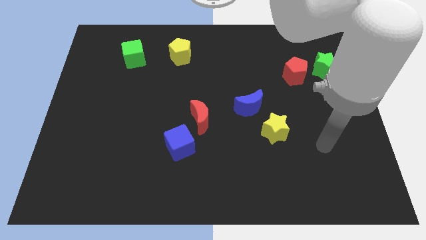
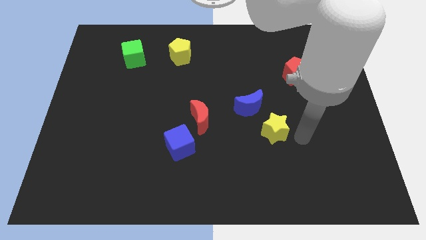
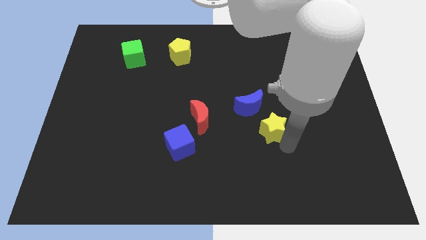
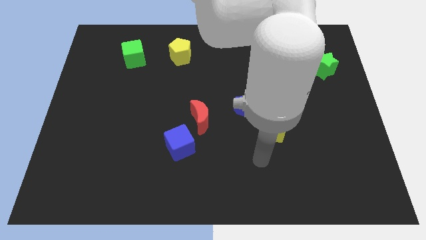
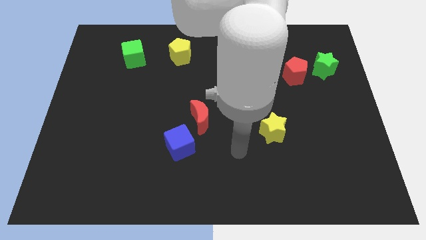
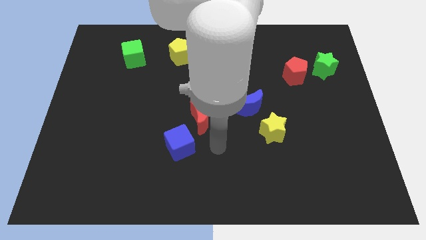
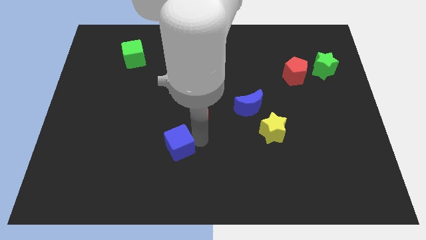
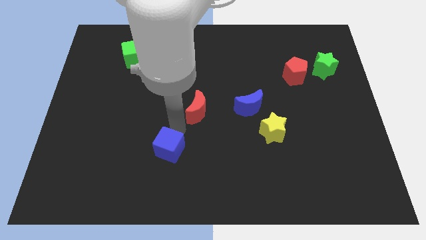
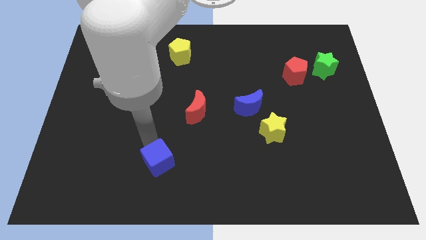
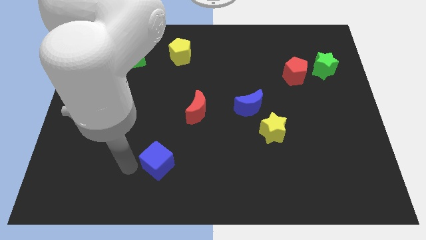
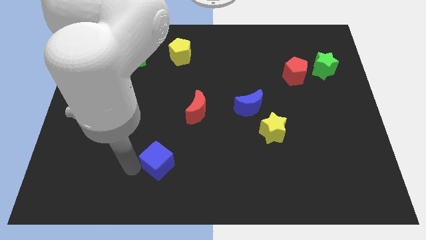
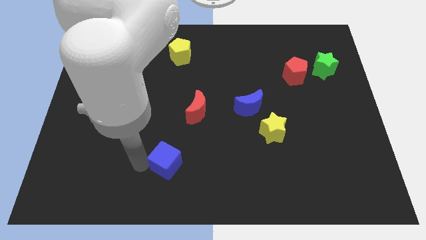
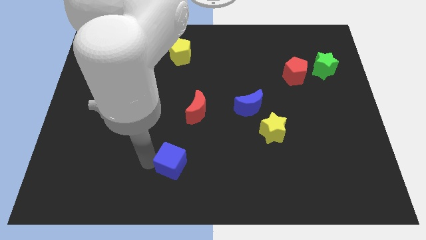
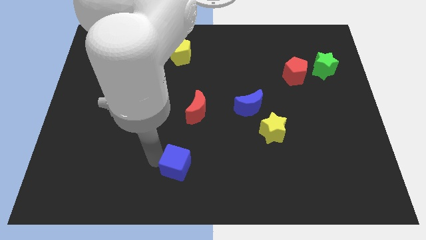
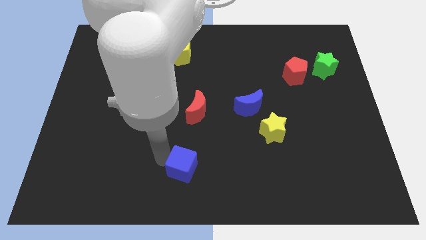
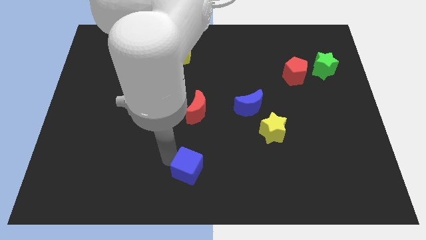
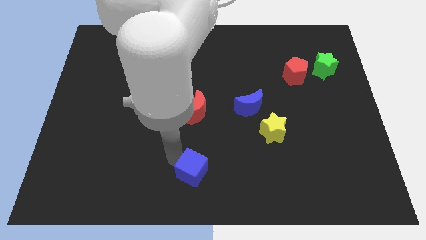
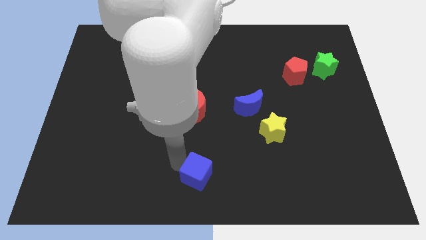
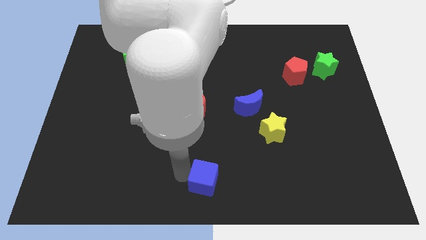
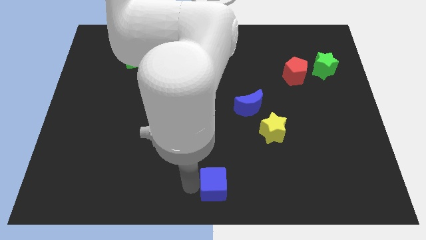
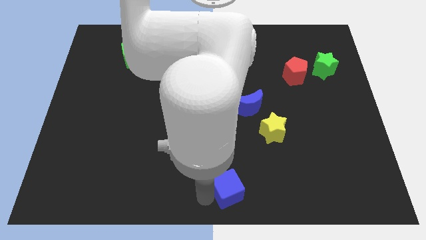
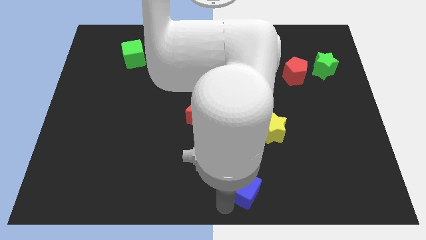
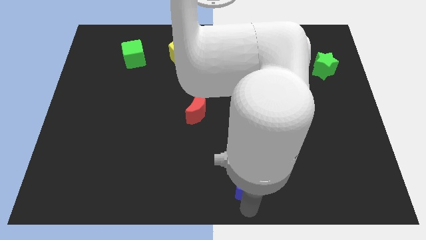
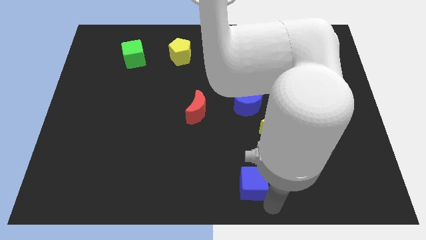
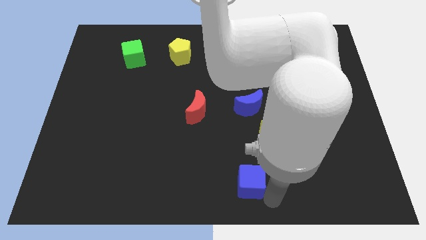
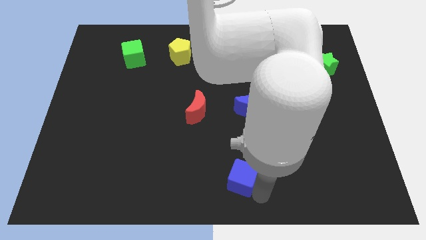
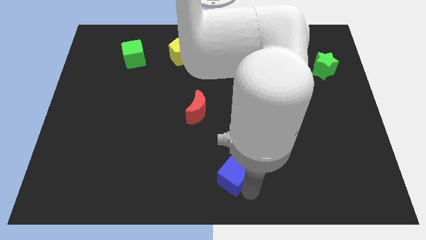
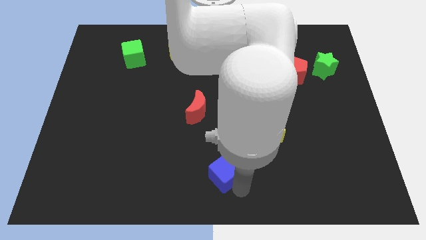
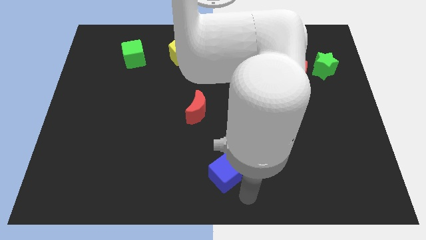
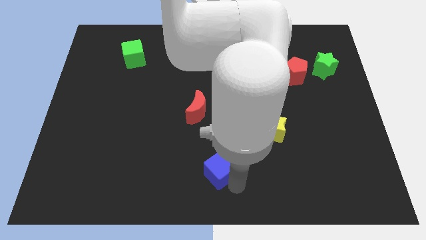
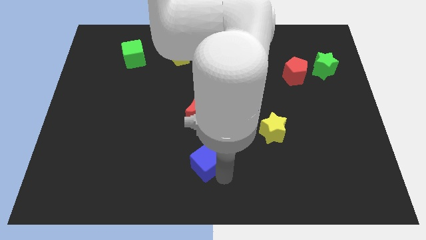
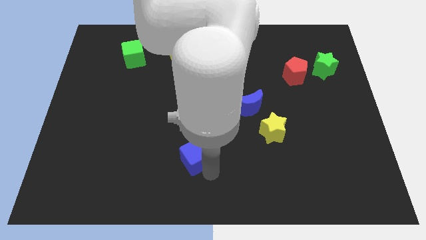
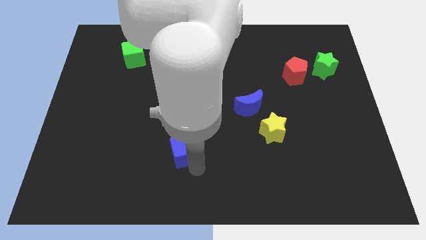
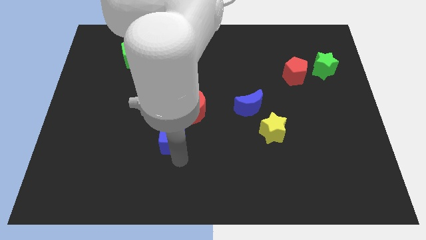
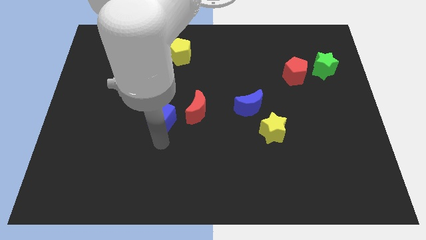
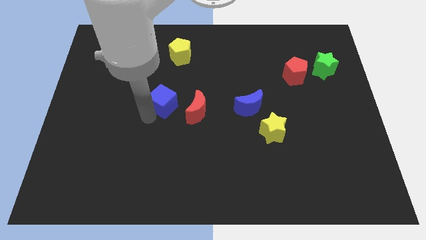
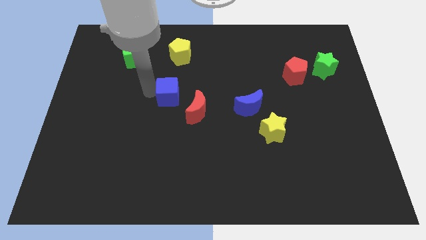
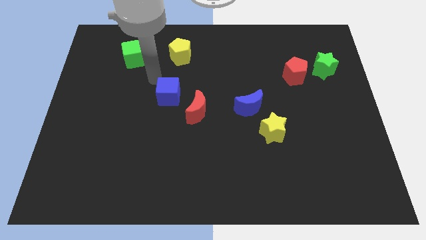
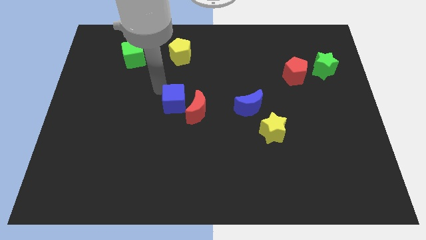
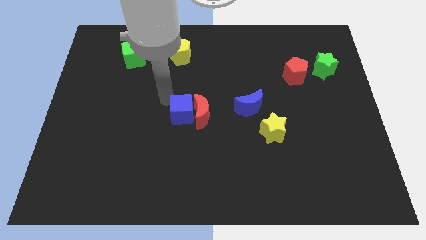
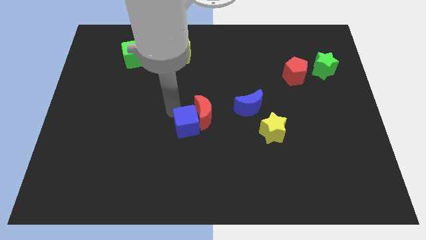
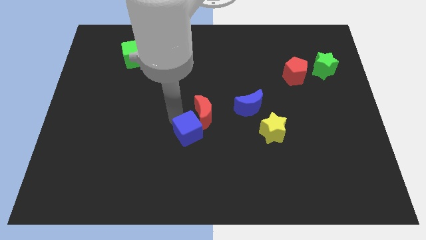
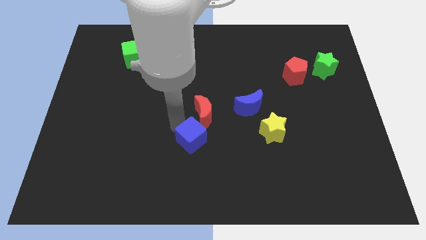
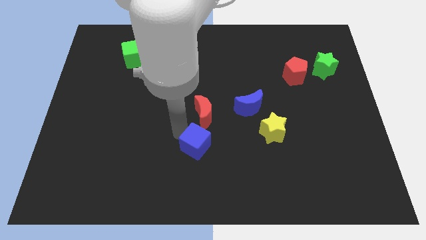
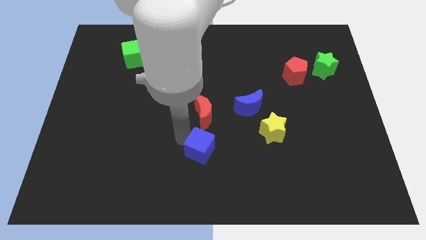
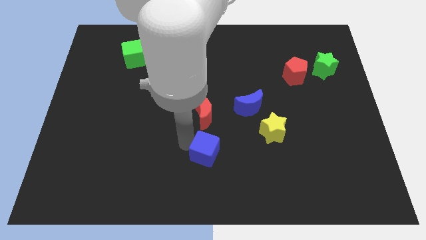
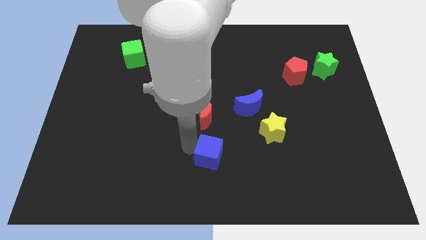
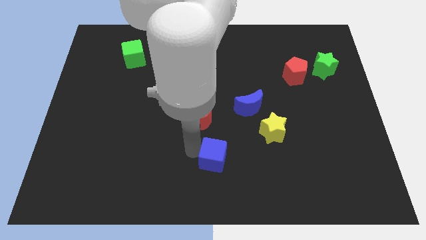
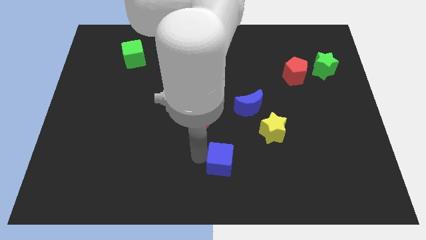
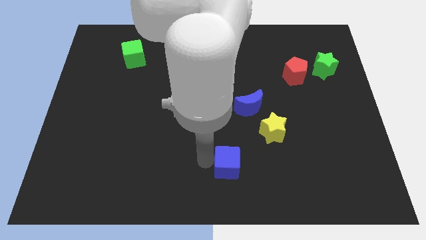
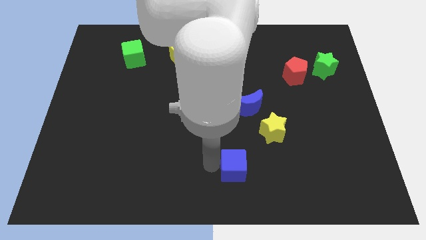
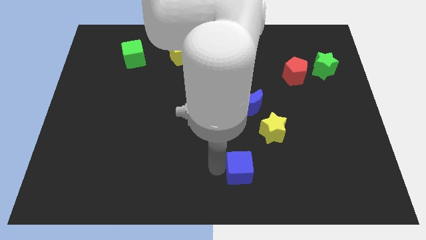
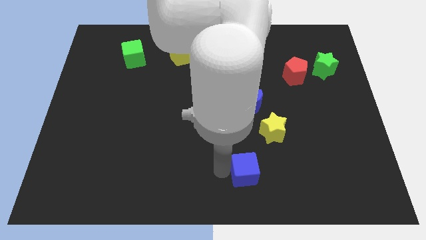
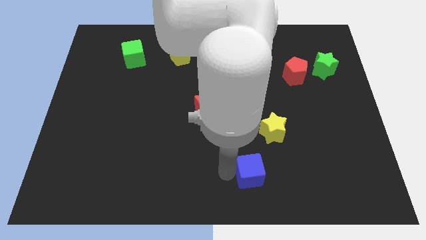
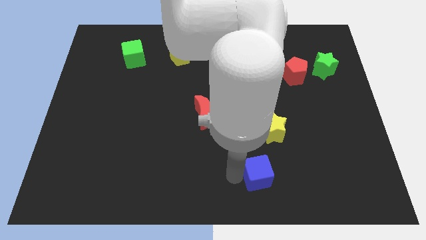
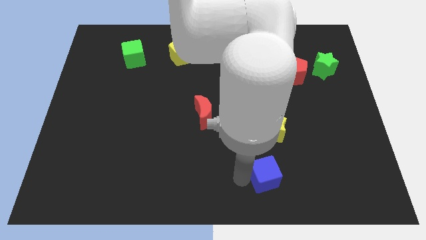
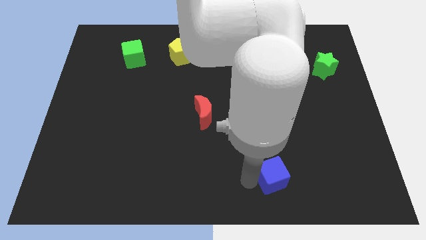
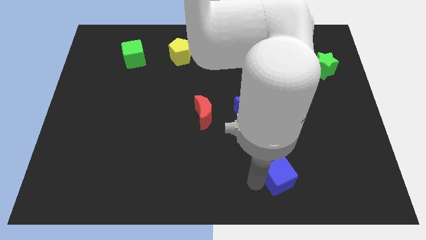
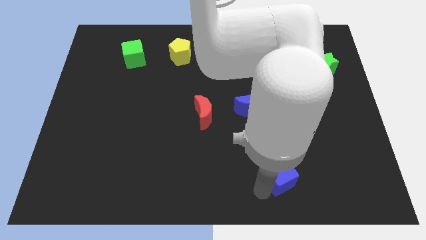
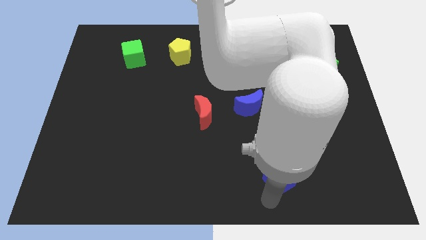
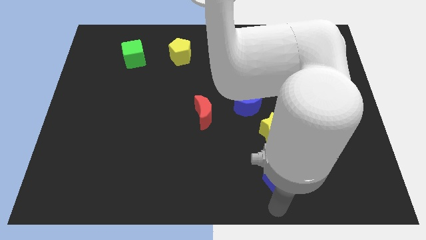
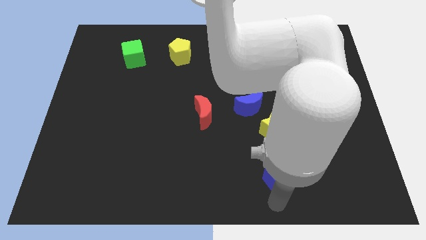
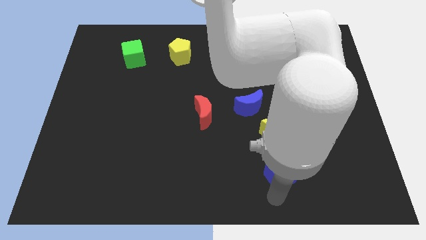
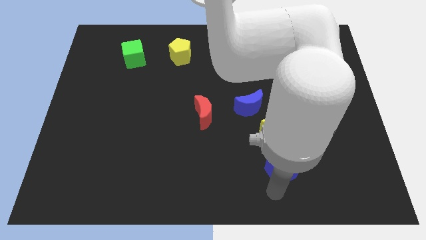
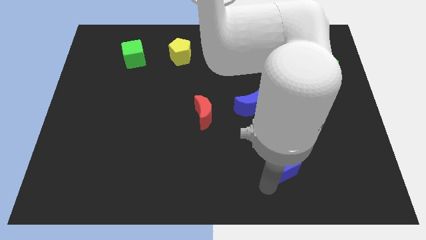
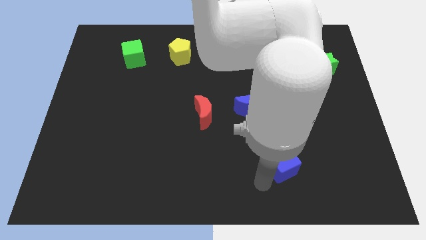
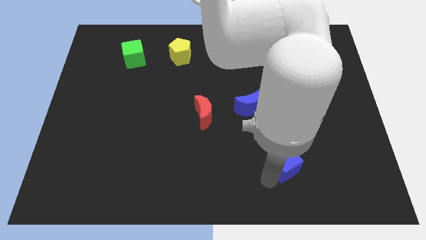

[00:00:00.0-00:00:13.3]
move the blue cube diagonally down and to the right of the yellow star

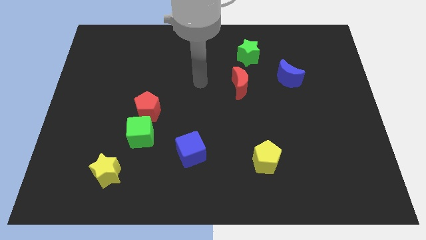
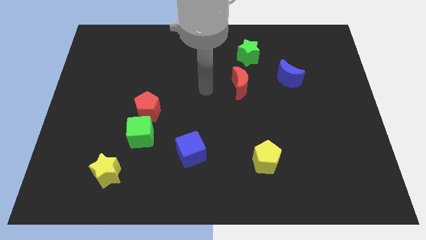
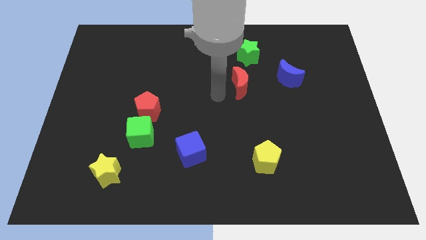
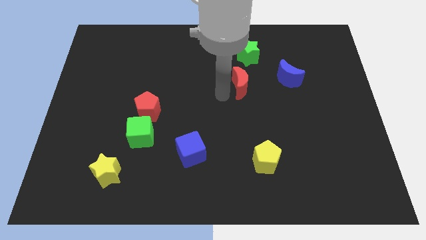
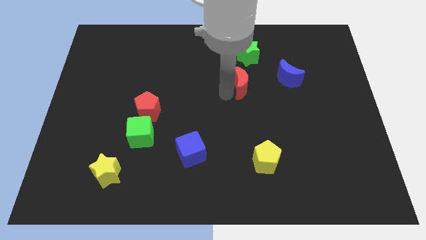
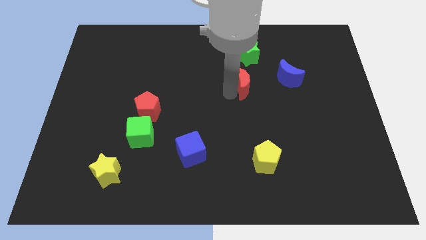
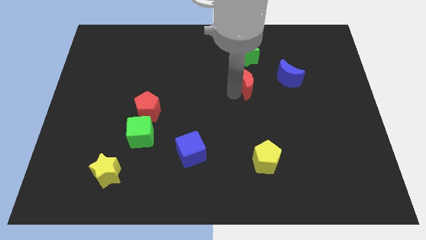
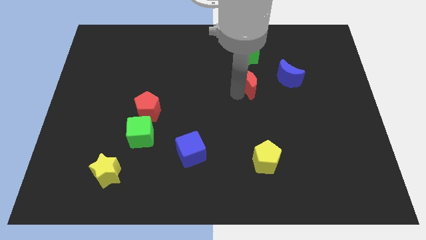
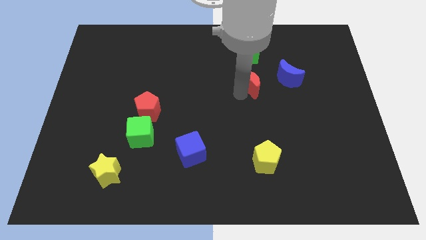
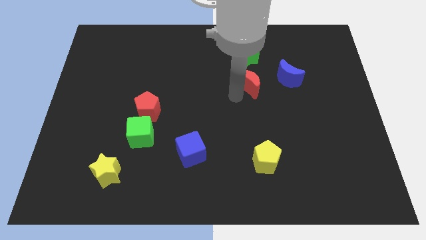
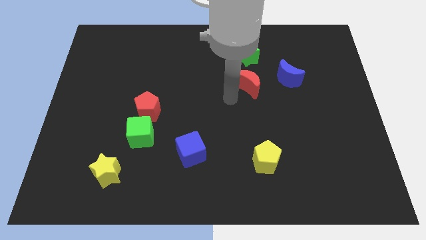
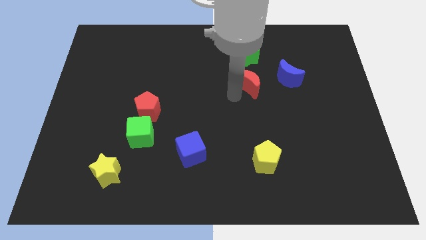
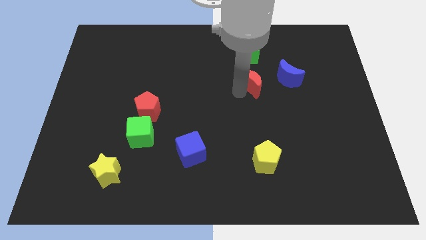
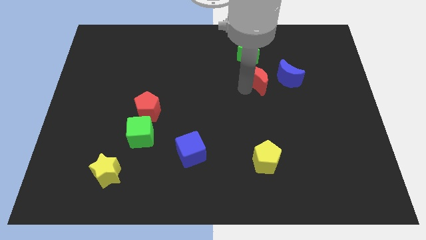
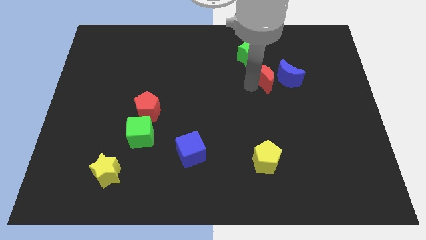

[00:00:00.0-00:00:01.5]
push the red moon diagonally down and to the right of the green star

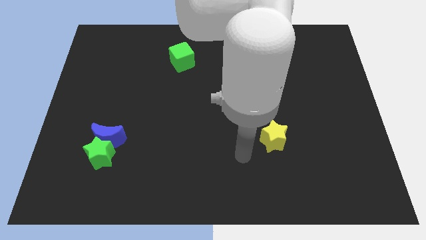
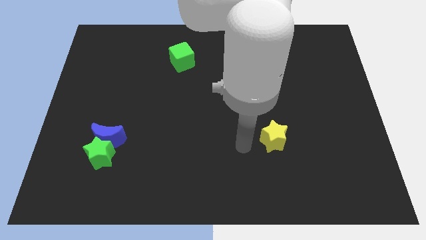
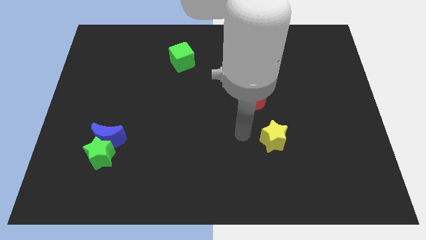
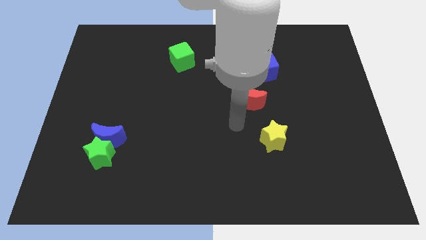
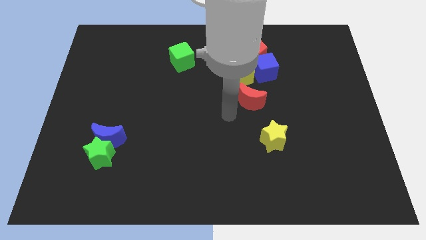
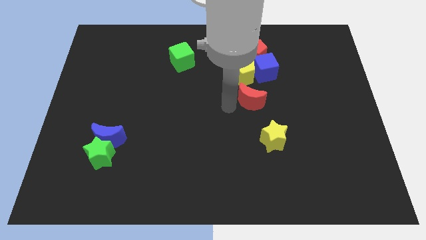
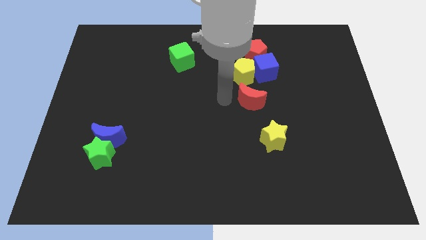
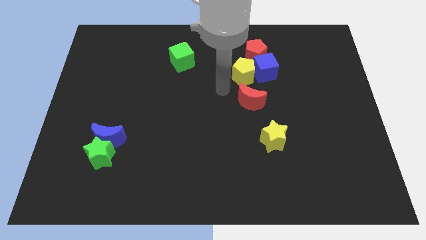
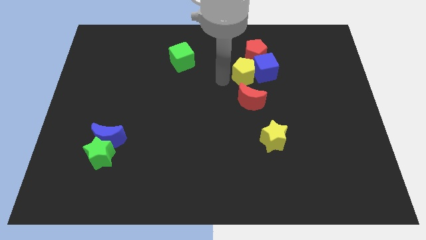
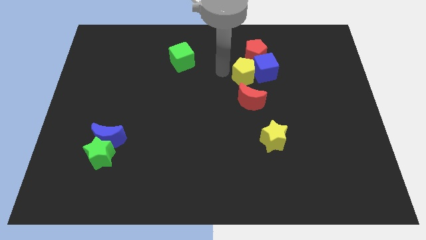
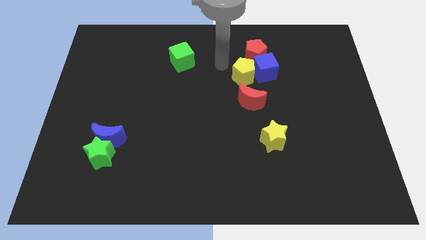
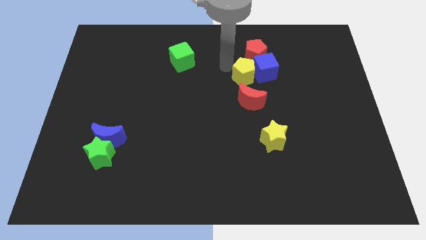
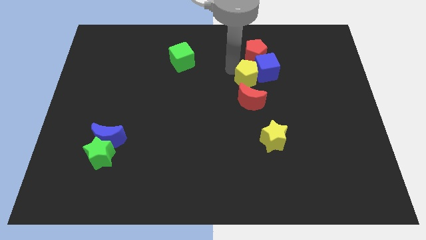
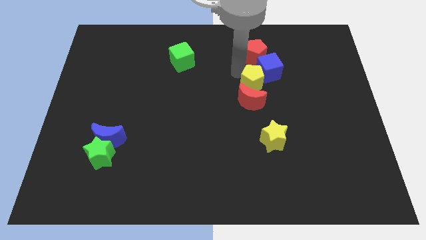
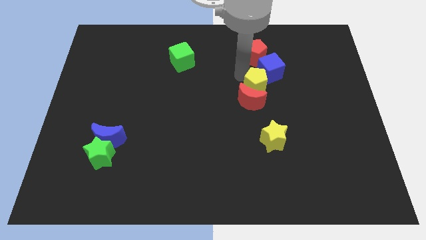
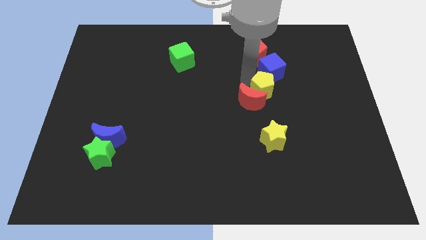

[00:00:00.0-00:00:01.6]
put the yellow pentagon to the right side of the red moon
